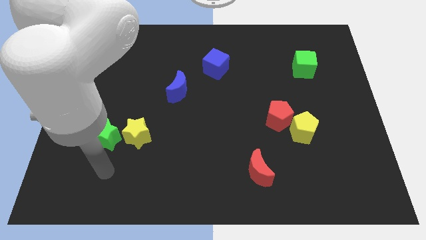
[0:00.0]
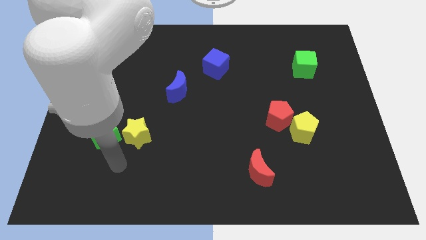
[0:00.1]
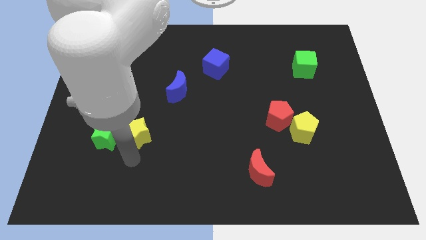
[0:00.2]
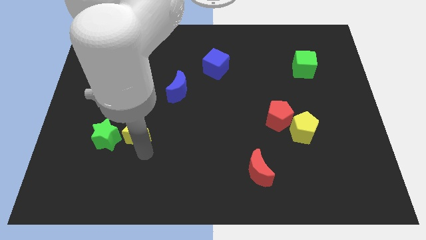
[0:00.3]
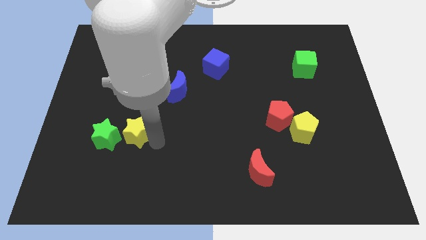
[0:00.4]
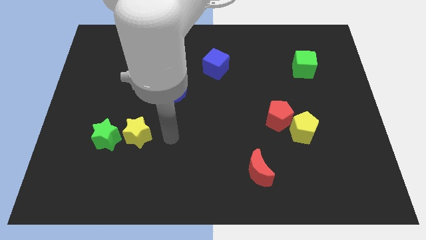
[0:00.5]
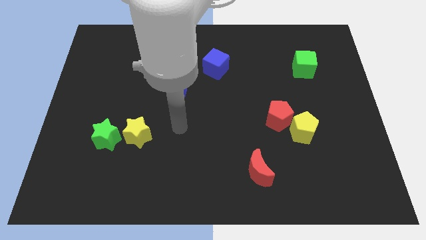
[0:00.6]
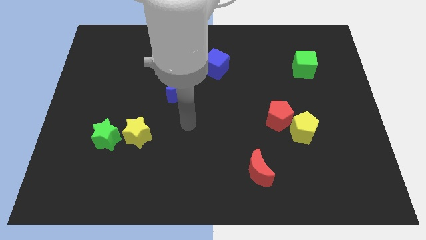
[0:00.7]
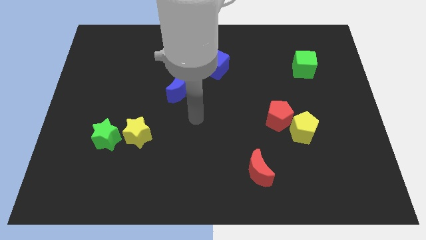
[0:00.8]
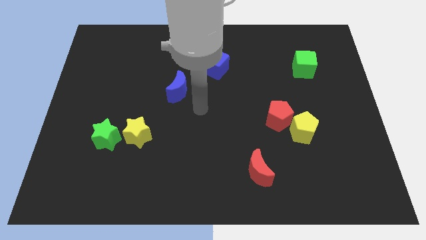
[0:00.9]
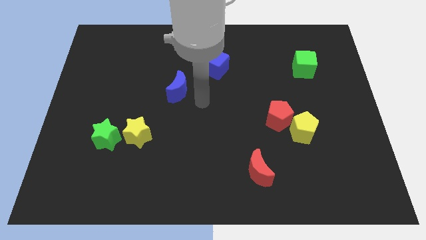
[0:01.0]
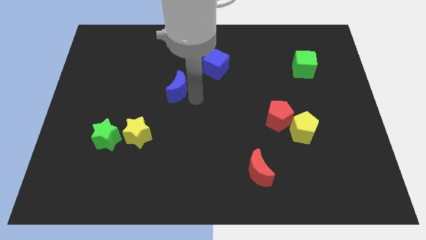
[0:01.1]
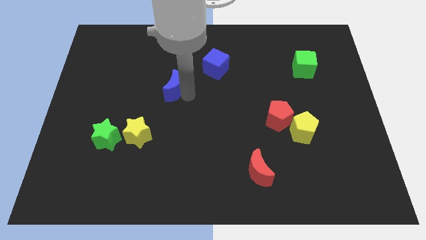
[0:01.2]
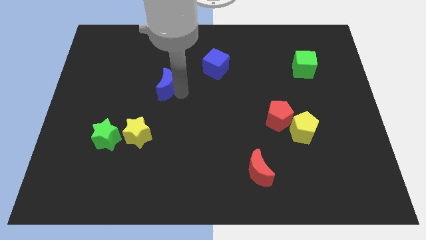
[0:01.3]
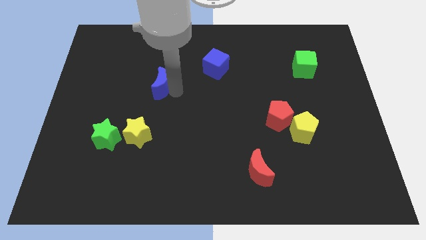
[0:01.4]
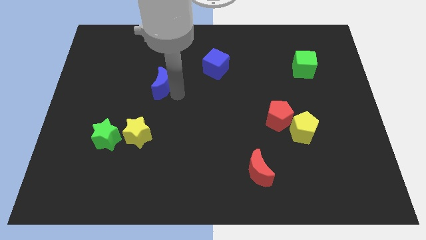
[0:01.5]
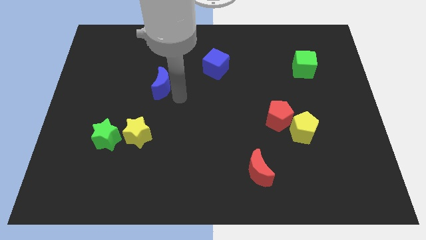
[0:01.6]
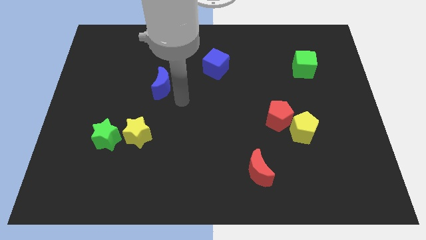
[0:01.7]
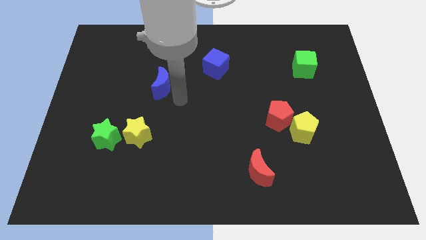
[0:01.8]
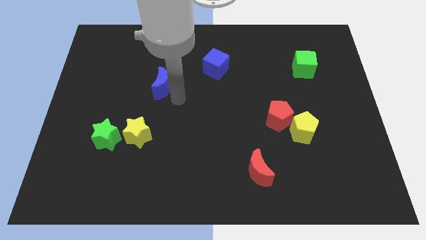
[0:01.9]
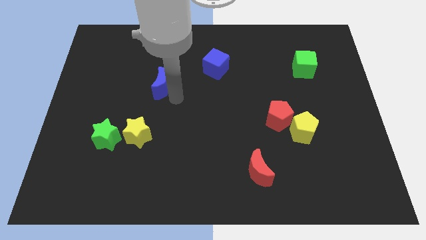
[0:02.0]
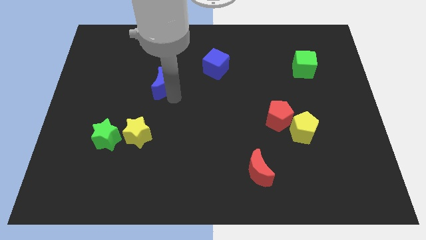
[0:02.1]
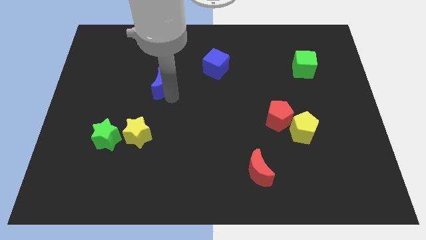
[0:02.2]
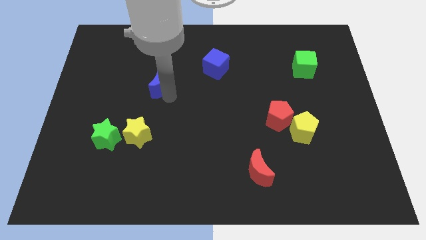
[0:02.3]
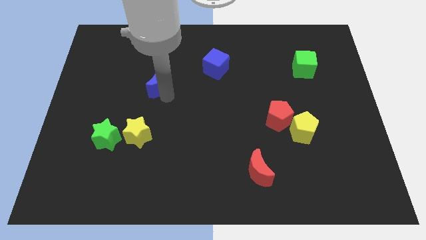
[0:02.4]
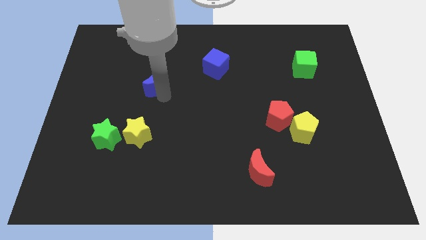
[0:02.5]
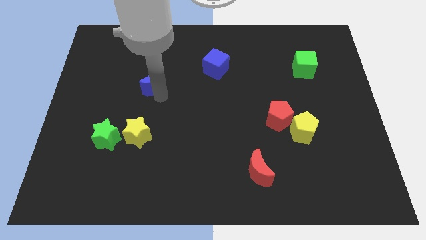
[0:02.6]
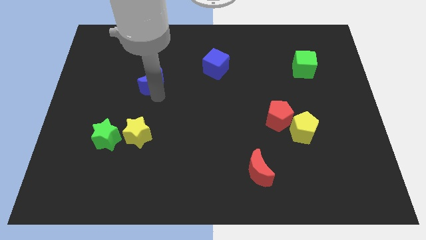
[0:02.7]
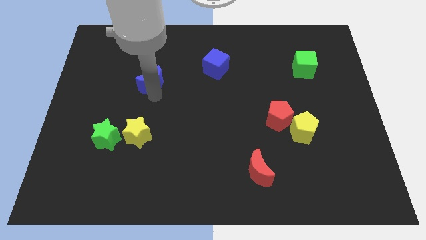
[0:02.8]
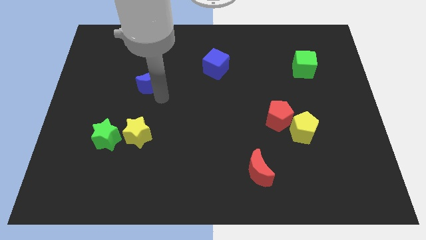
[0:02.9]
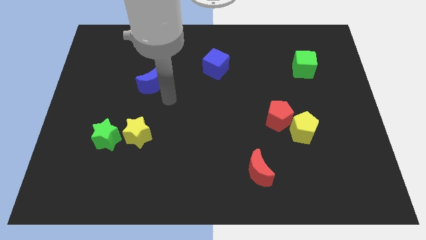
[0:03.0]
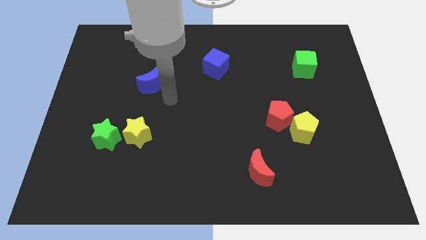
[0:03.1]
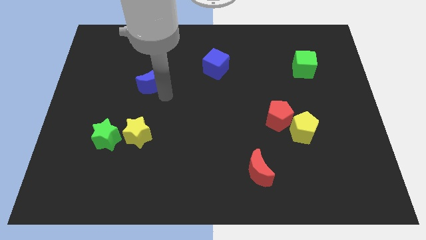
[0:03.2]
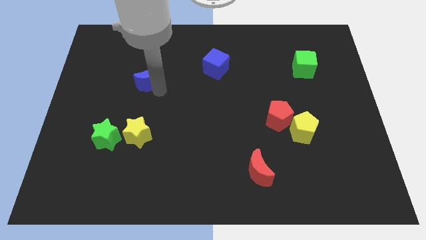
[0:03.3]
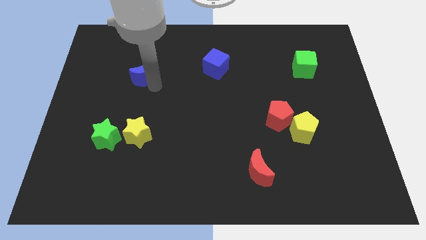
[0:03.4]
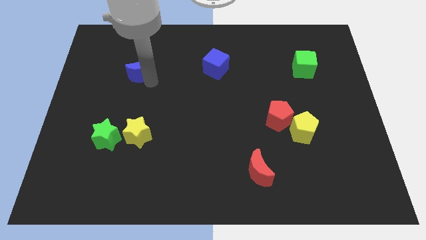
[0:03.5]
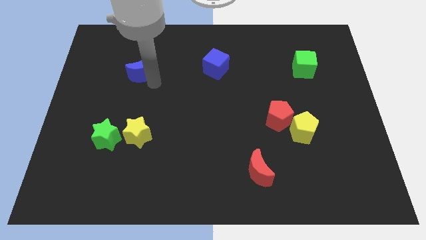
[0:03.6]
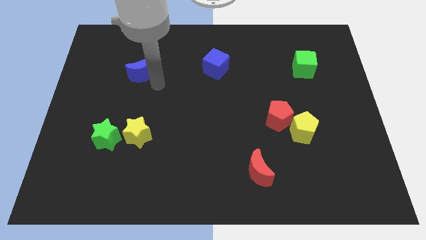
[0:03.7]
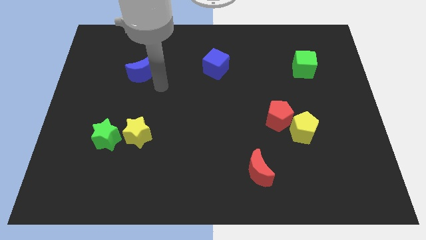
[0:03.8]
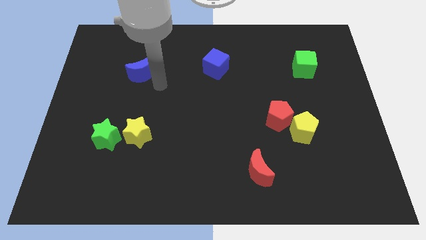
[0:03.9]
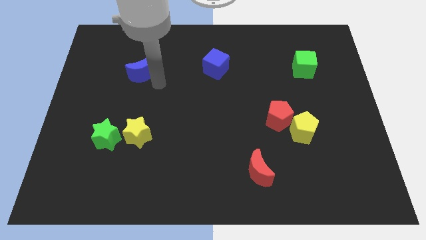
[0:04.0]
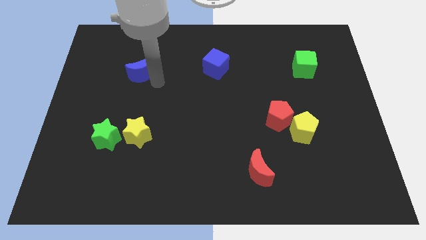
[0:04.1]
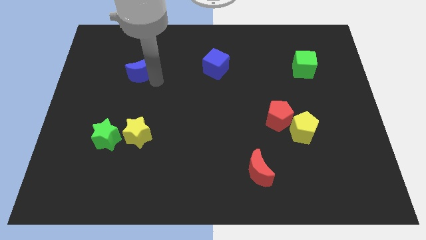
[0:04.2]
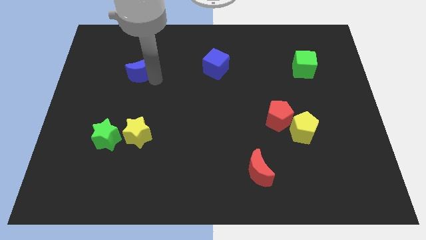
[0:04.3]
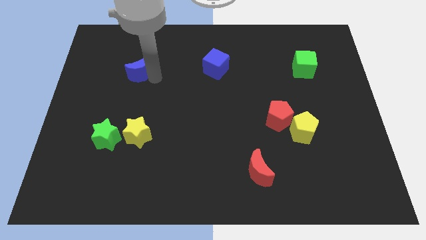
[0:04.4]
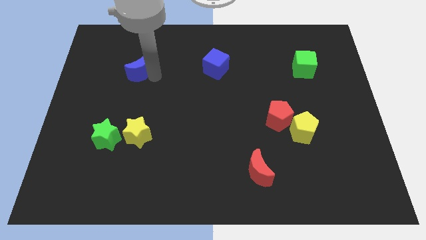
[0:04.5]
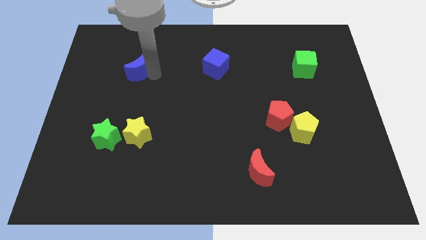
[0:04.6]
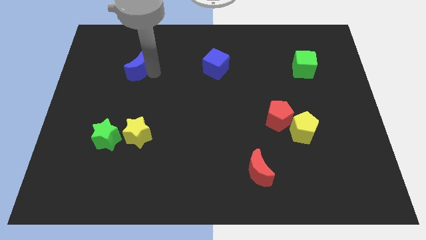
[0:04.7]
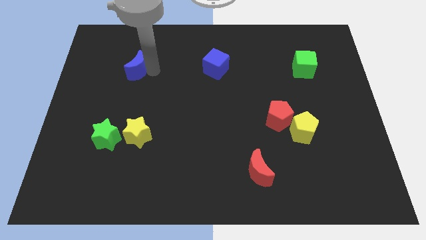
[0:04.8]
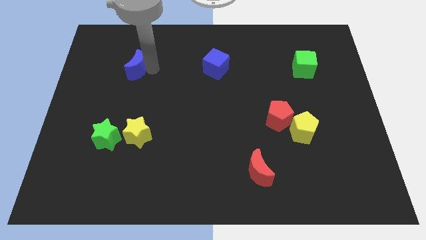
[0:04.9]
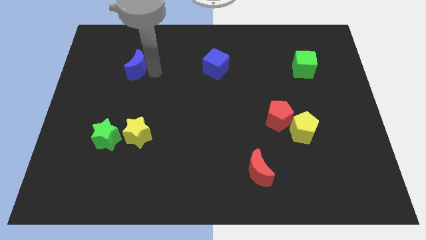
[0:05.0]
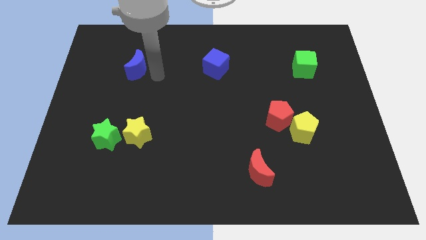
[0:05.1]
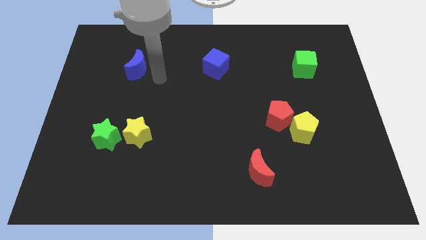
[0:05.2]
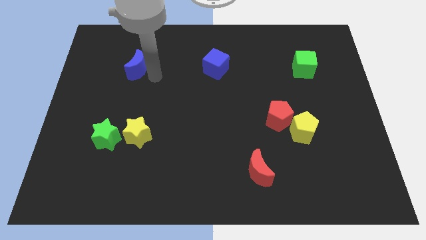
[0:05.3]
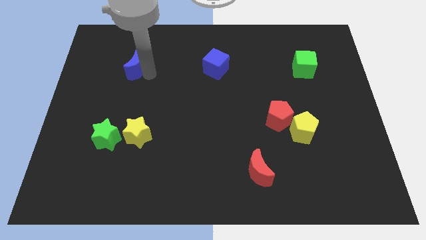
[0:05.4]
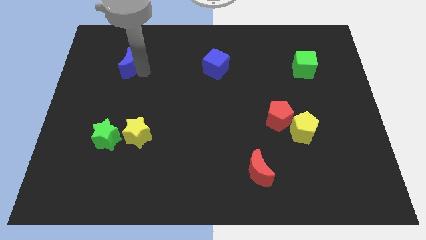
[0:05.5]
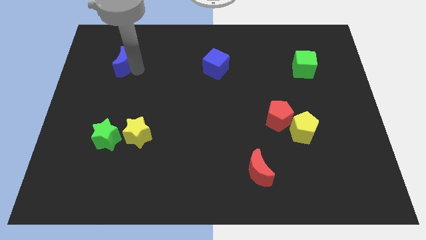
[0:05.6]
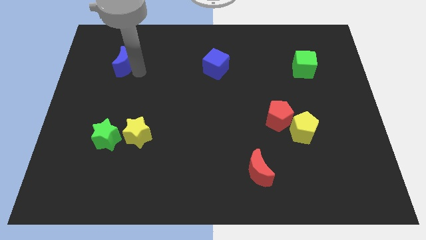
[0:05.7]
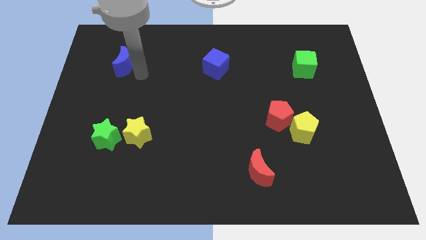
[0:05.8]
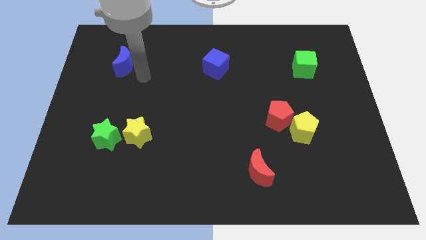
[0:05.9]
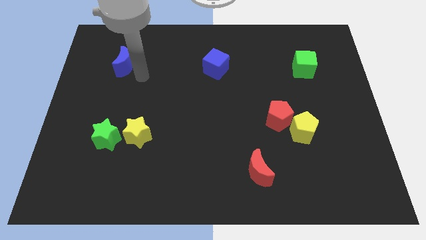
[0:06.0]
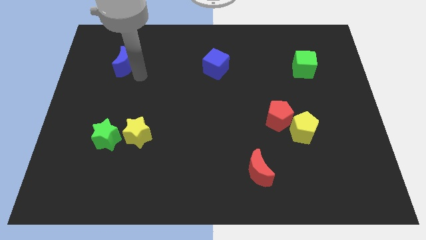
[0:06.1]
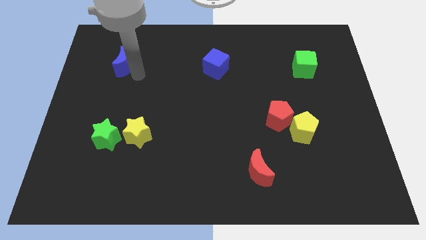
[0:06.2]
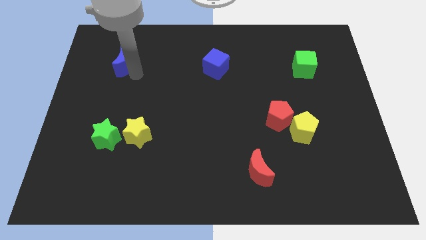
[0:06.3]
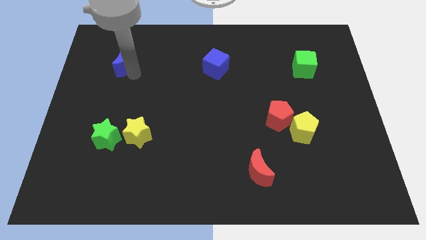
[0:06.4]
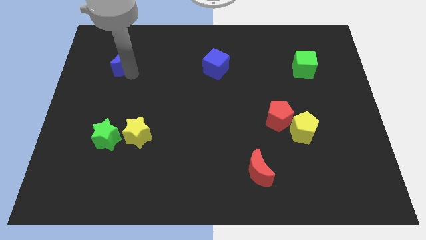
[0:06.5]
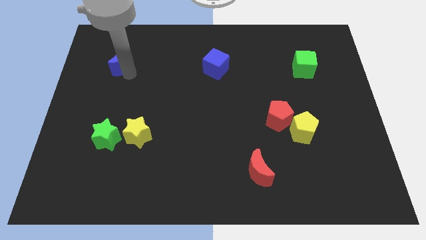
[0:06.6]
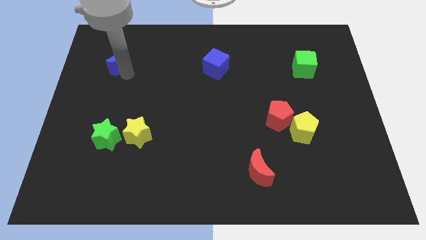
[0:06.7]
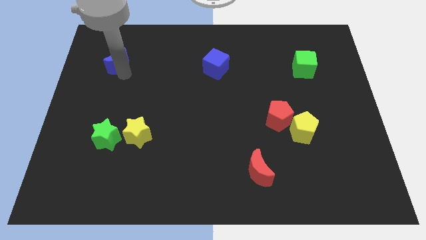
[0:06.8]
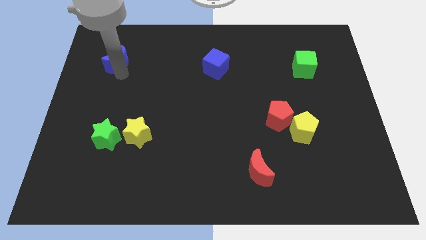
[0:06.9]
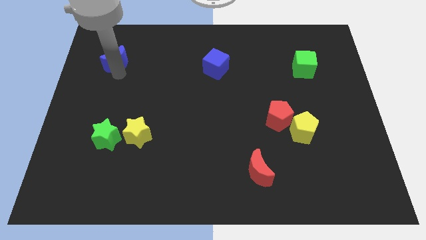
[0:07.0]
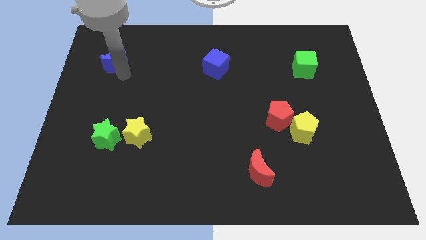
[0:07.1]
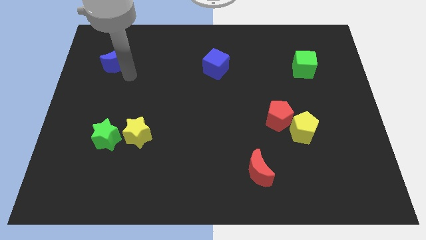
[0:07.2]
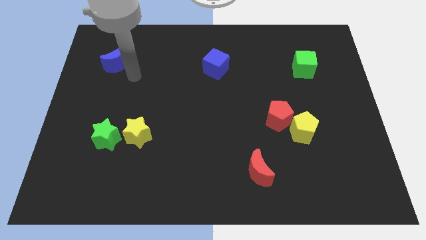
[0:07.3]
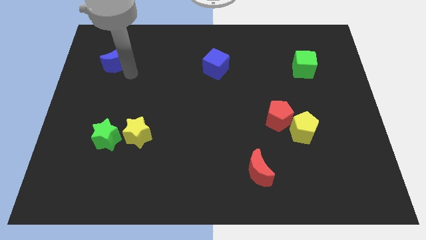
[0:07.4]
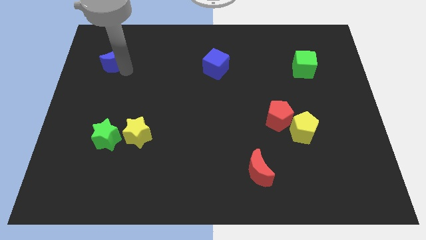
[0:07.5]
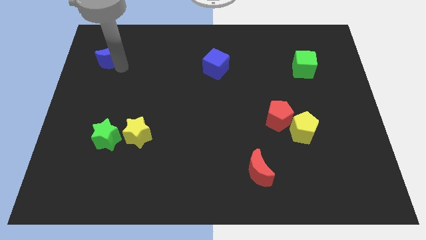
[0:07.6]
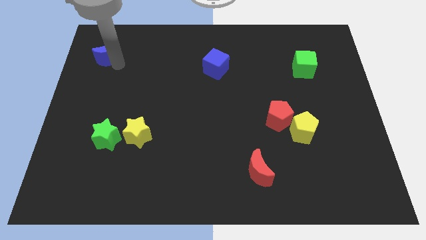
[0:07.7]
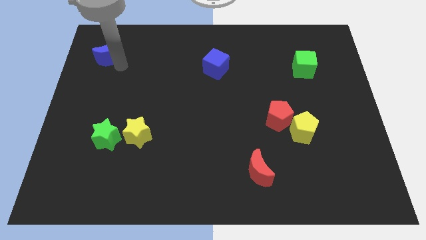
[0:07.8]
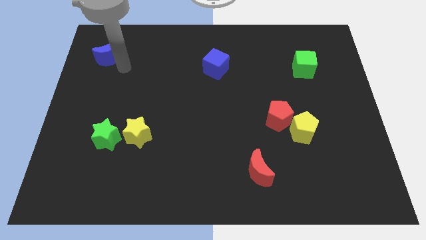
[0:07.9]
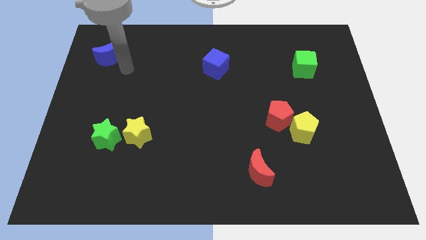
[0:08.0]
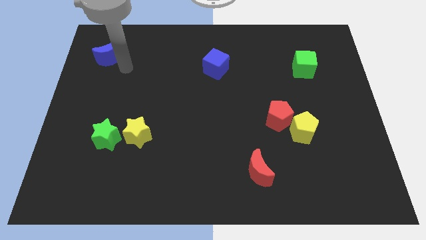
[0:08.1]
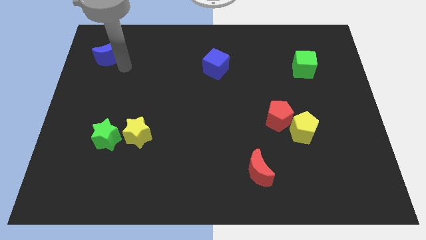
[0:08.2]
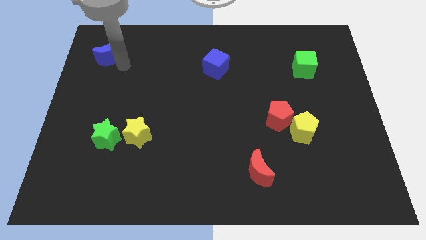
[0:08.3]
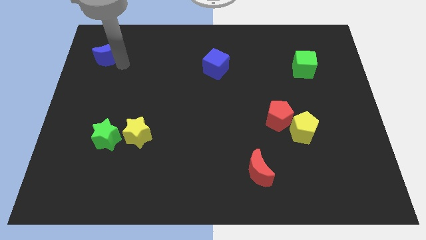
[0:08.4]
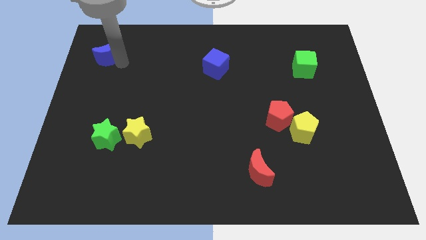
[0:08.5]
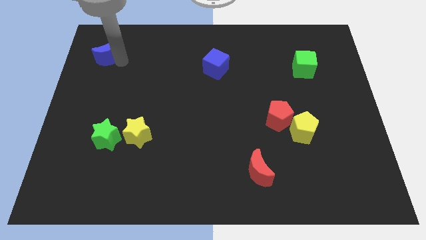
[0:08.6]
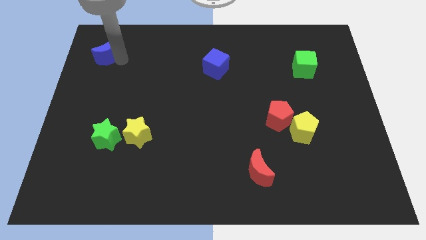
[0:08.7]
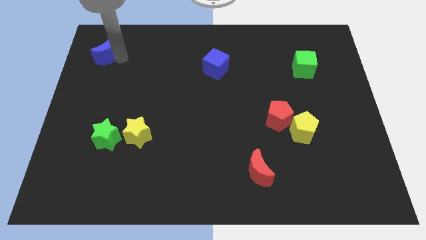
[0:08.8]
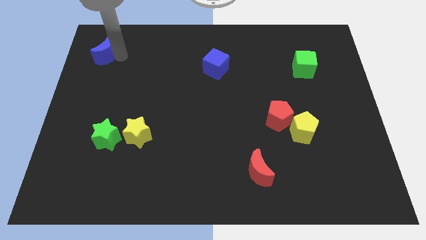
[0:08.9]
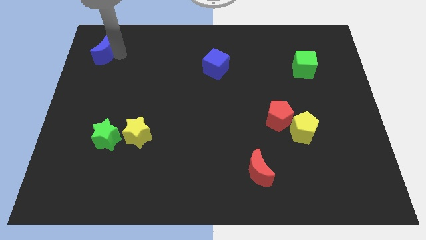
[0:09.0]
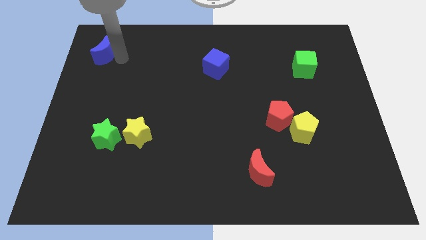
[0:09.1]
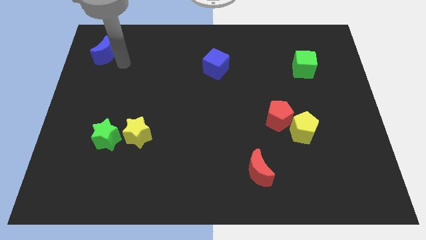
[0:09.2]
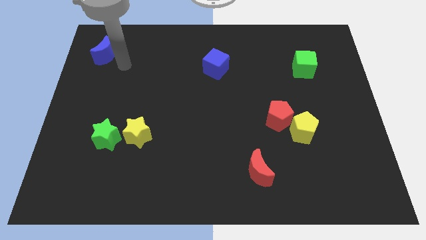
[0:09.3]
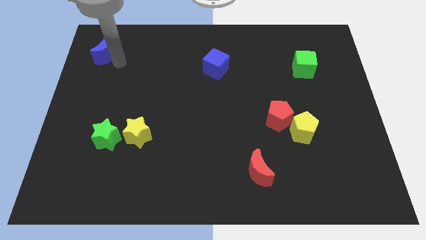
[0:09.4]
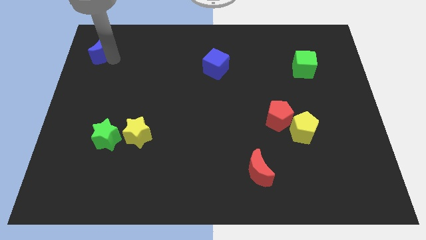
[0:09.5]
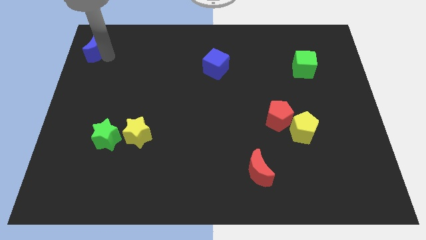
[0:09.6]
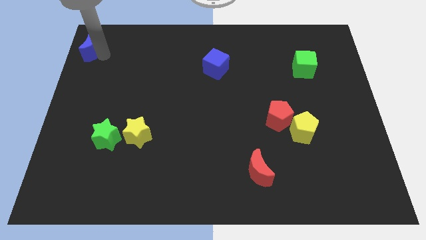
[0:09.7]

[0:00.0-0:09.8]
slide the blue moon to the upper left corner
